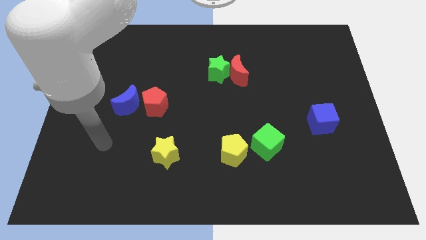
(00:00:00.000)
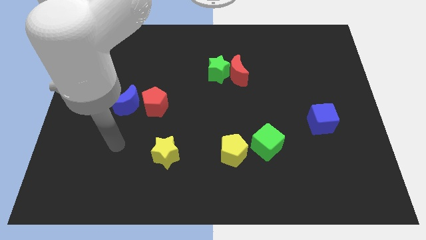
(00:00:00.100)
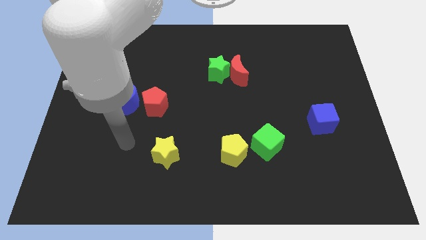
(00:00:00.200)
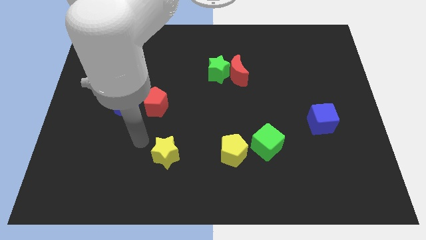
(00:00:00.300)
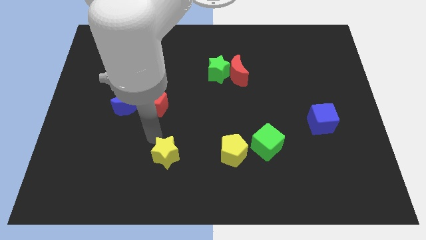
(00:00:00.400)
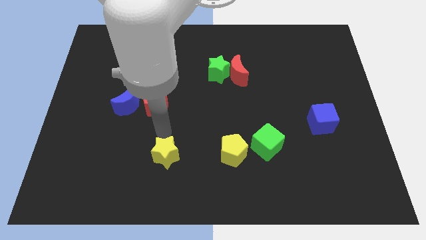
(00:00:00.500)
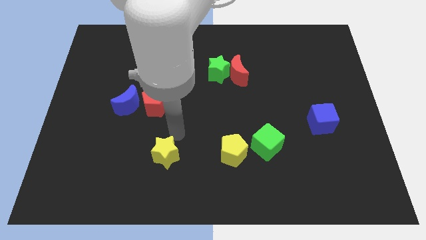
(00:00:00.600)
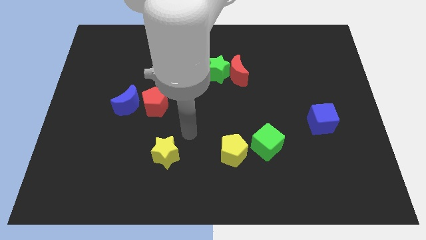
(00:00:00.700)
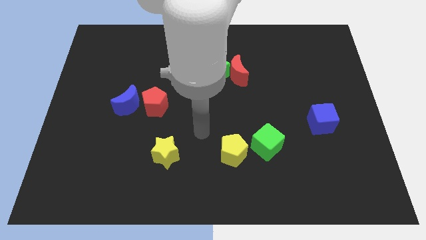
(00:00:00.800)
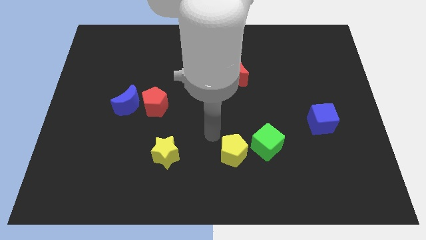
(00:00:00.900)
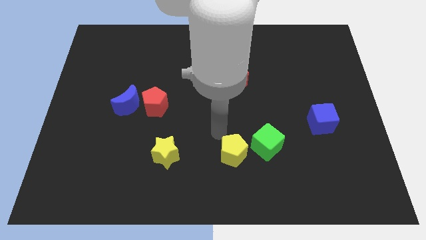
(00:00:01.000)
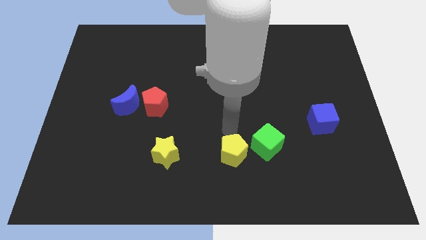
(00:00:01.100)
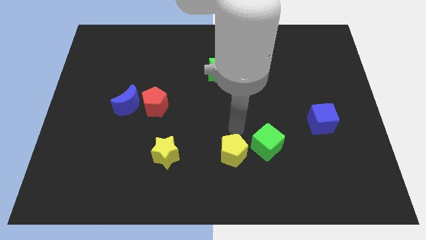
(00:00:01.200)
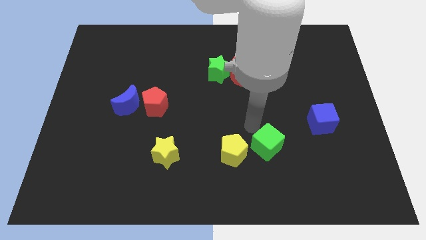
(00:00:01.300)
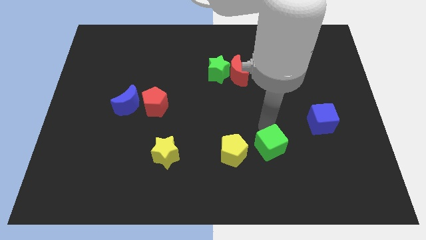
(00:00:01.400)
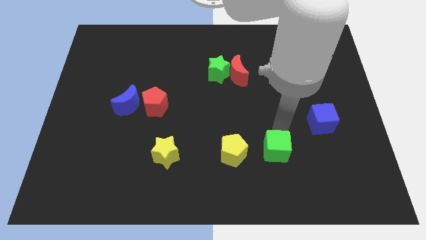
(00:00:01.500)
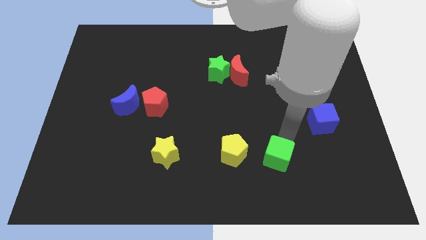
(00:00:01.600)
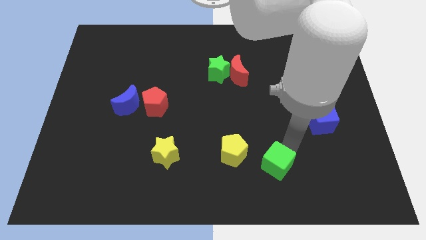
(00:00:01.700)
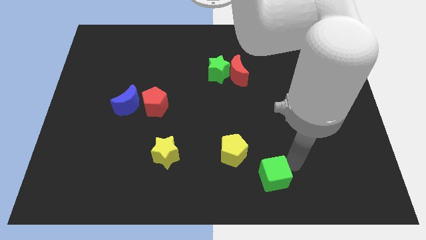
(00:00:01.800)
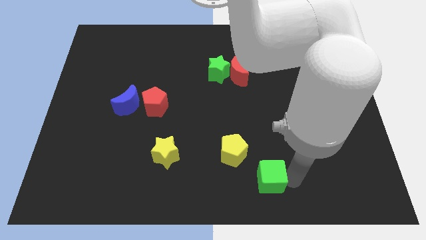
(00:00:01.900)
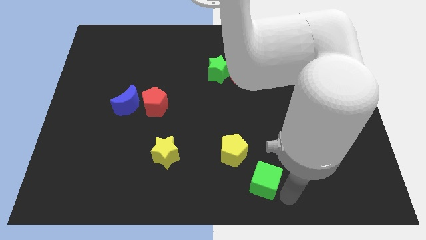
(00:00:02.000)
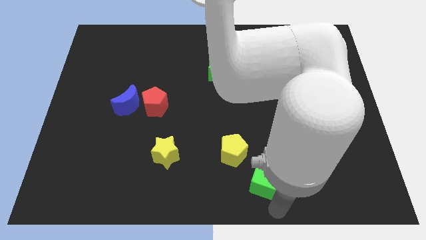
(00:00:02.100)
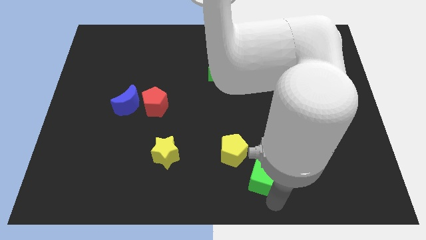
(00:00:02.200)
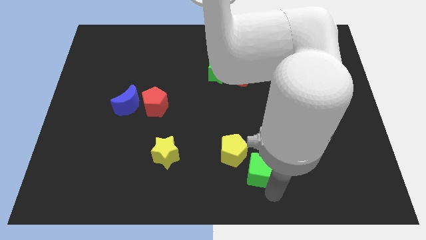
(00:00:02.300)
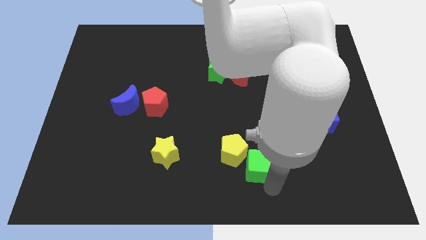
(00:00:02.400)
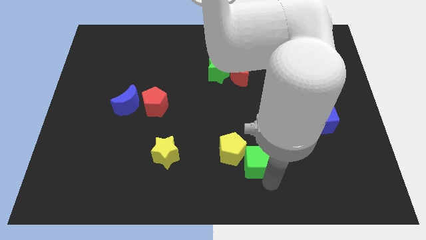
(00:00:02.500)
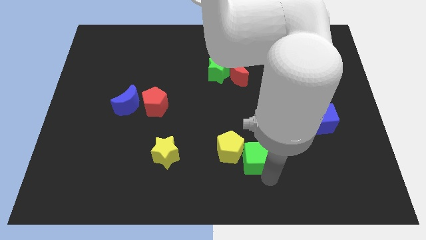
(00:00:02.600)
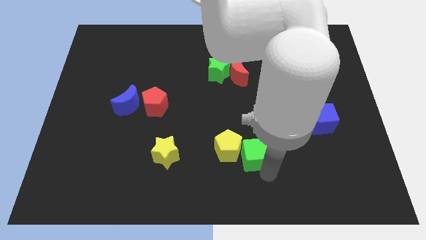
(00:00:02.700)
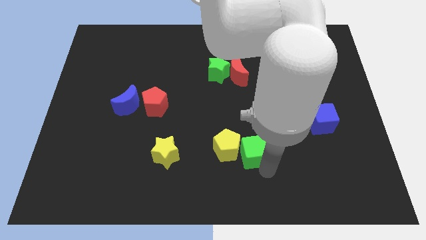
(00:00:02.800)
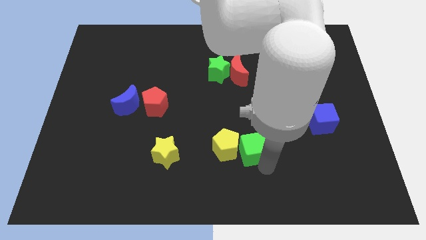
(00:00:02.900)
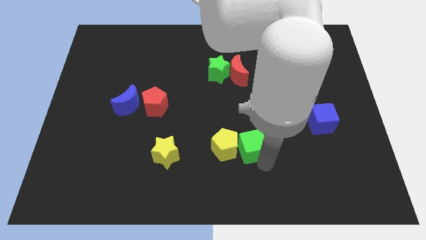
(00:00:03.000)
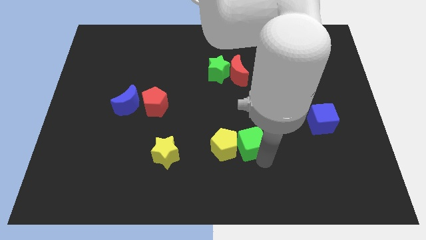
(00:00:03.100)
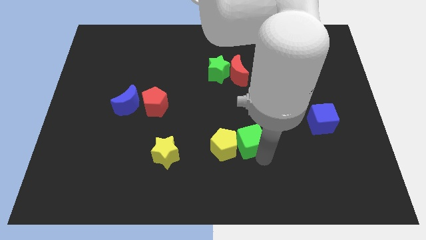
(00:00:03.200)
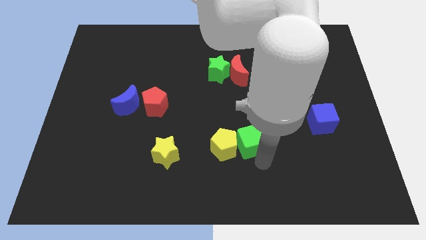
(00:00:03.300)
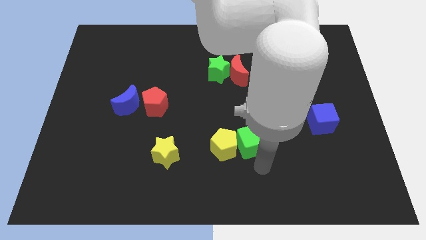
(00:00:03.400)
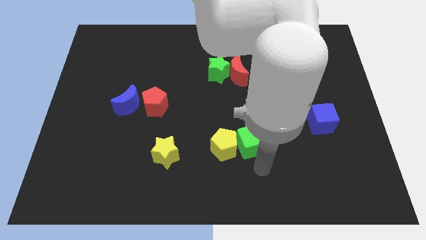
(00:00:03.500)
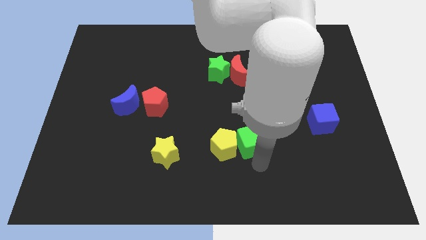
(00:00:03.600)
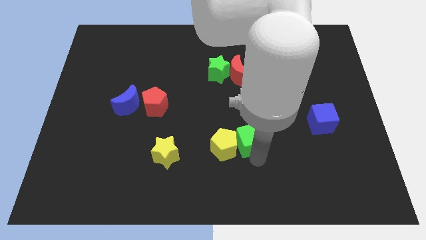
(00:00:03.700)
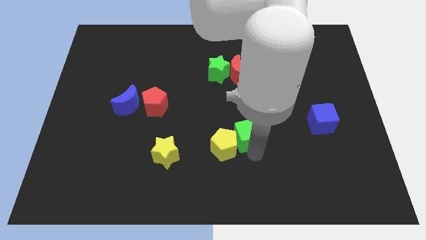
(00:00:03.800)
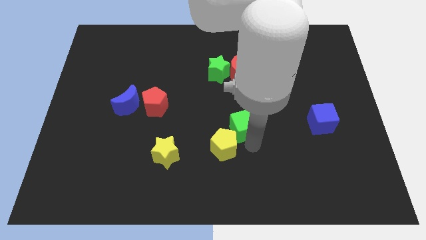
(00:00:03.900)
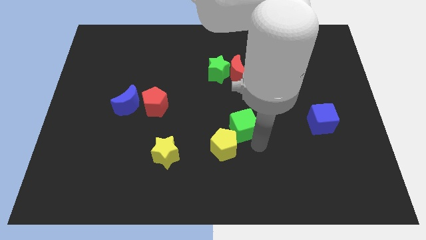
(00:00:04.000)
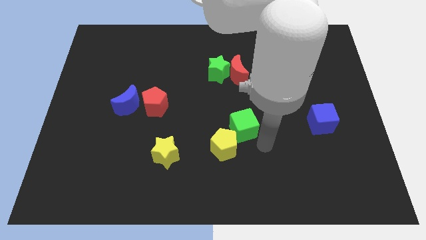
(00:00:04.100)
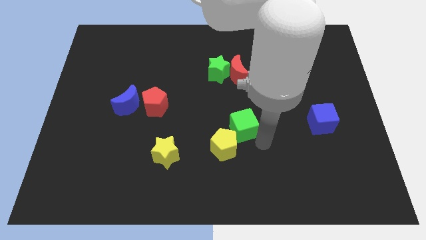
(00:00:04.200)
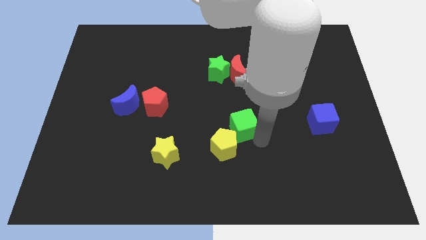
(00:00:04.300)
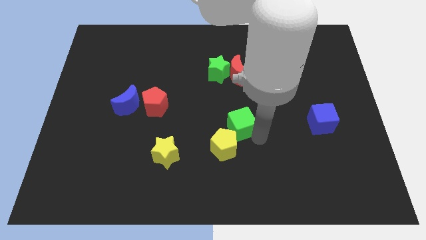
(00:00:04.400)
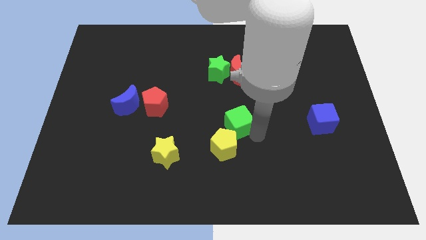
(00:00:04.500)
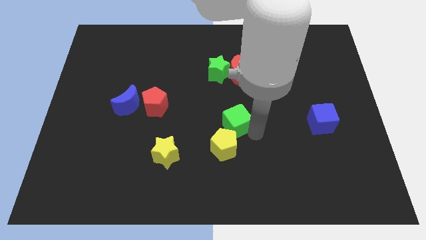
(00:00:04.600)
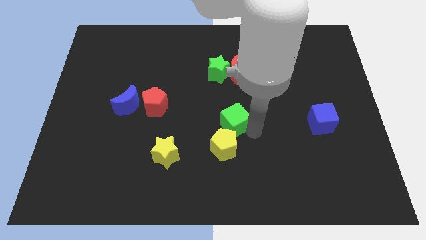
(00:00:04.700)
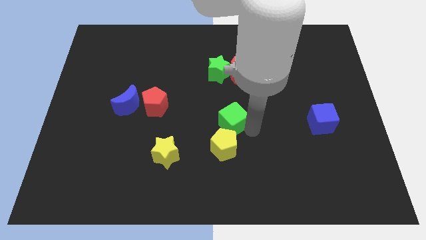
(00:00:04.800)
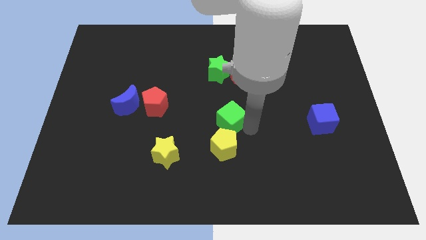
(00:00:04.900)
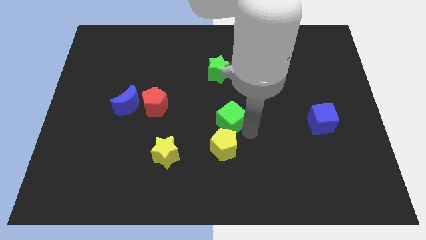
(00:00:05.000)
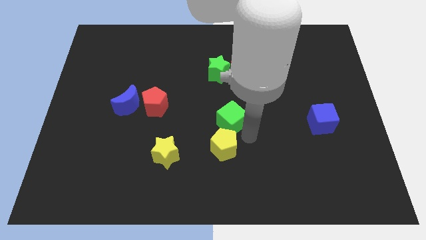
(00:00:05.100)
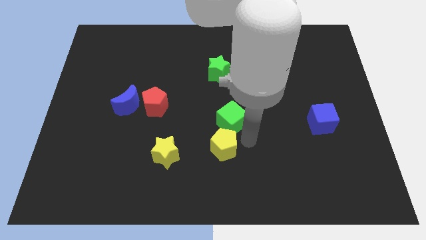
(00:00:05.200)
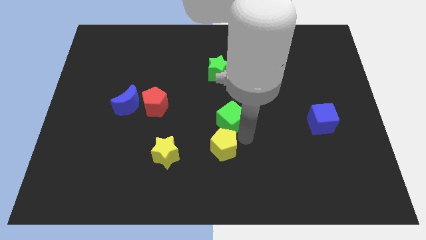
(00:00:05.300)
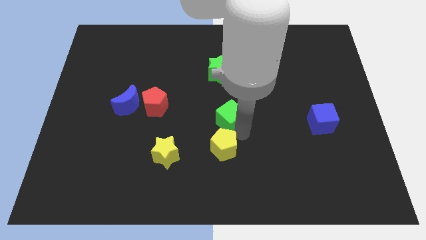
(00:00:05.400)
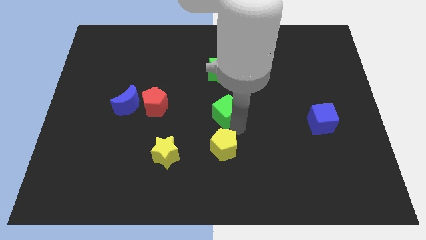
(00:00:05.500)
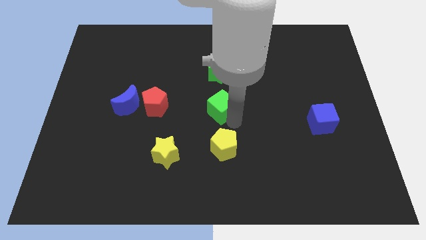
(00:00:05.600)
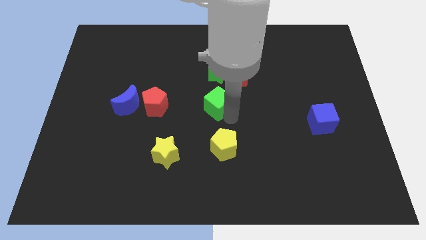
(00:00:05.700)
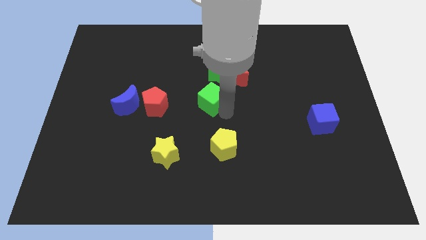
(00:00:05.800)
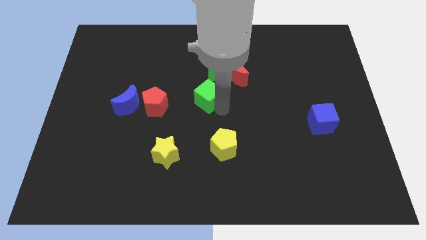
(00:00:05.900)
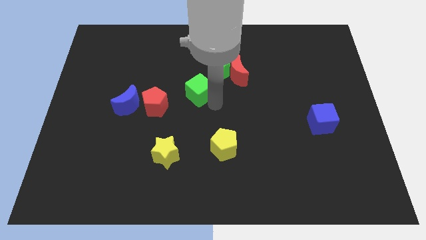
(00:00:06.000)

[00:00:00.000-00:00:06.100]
move the green cube diagonally up and left

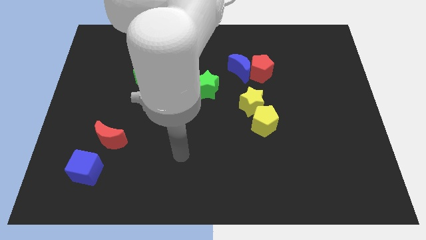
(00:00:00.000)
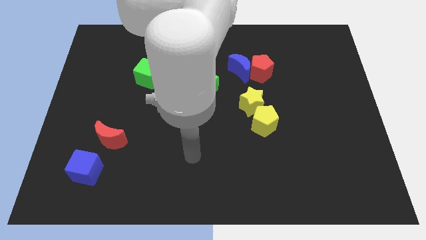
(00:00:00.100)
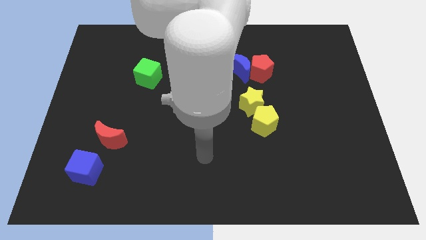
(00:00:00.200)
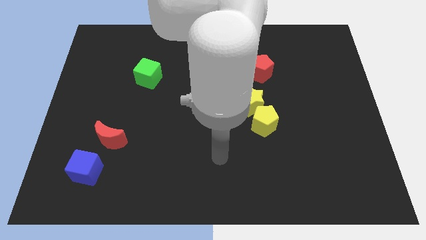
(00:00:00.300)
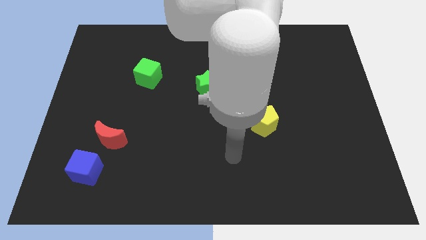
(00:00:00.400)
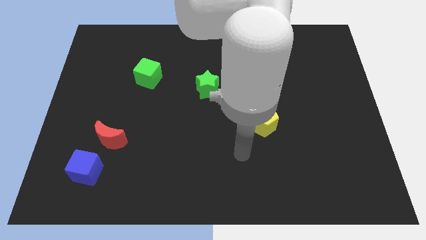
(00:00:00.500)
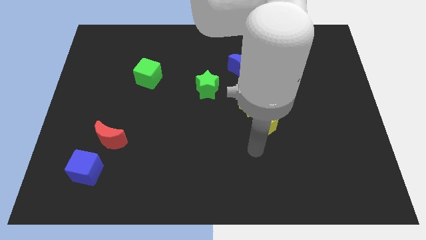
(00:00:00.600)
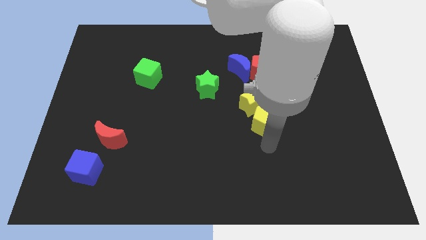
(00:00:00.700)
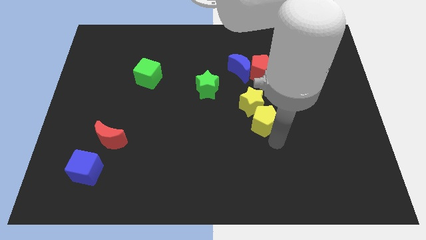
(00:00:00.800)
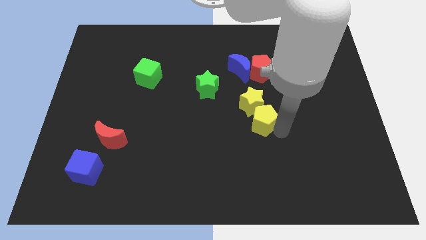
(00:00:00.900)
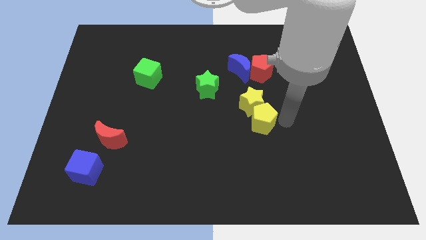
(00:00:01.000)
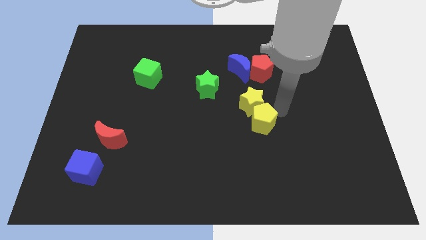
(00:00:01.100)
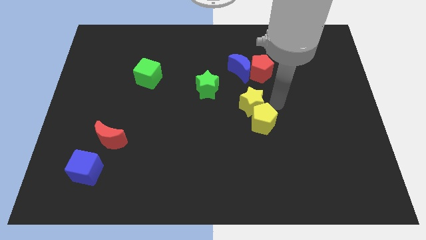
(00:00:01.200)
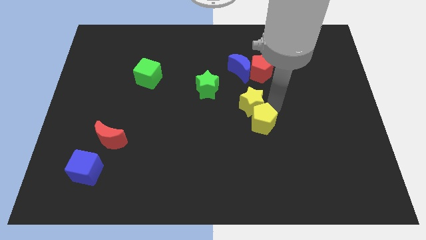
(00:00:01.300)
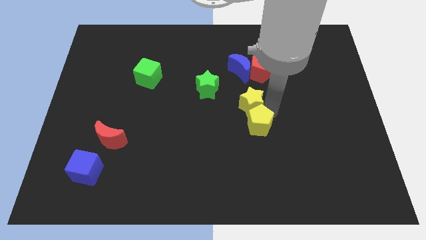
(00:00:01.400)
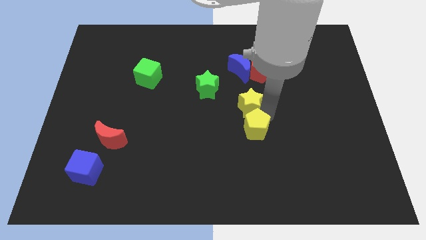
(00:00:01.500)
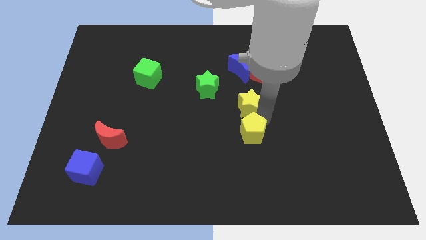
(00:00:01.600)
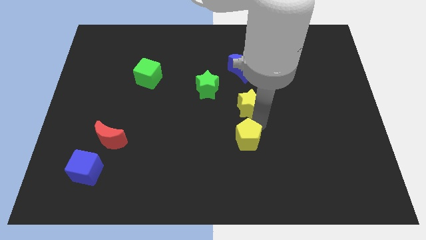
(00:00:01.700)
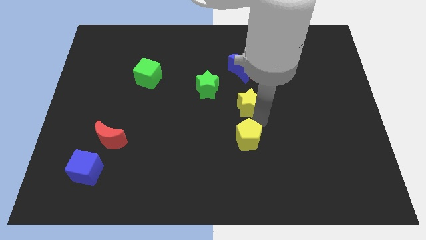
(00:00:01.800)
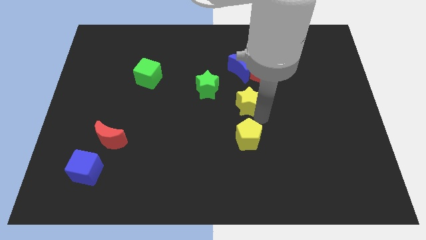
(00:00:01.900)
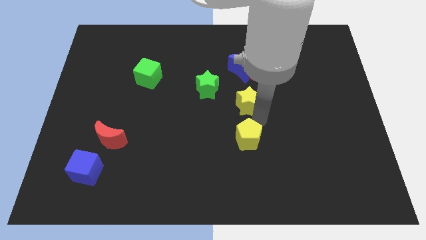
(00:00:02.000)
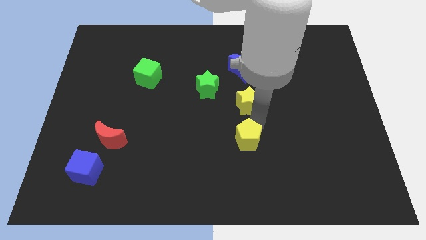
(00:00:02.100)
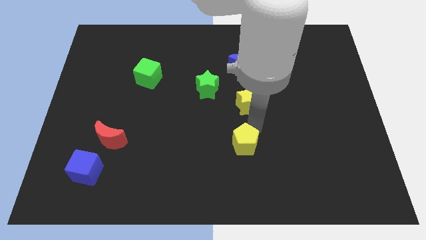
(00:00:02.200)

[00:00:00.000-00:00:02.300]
push the yellow pentagon down and left diagonally somewhat
